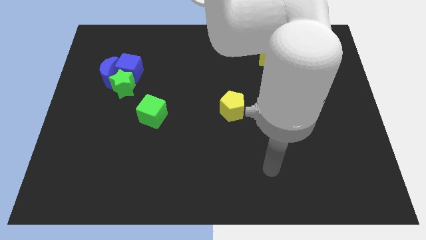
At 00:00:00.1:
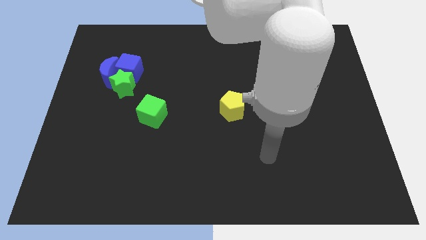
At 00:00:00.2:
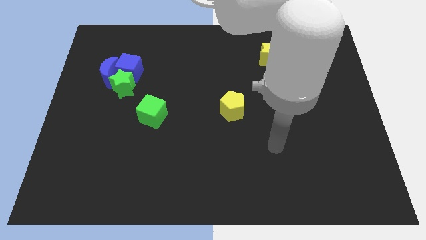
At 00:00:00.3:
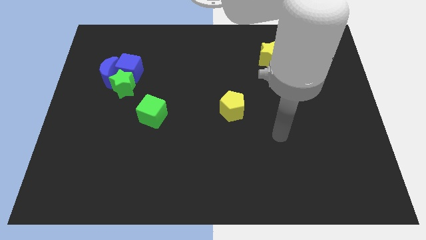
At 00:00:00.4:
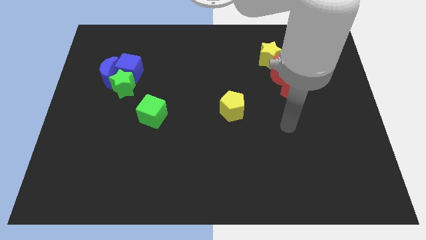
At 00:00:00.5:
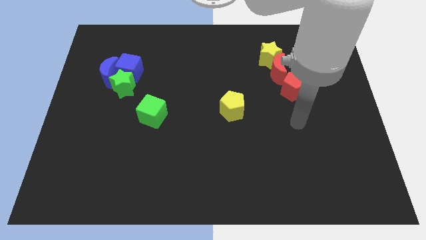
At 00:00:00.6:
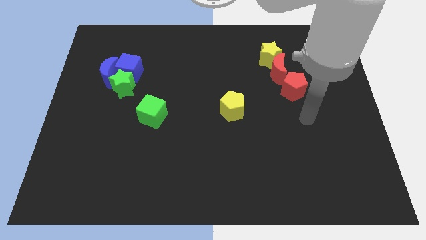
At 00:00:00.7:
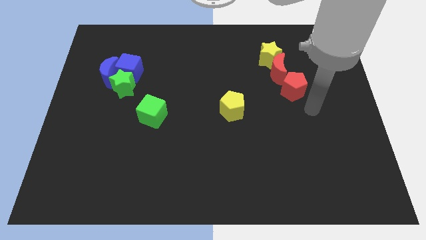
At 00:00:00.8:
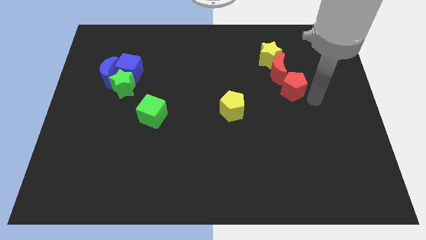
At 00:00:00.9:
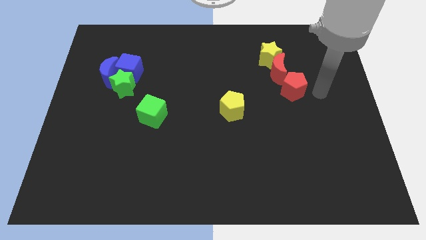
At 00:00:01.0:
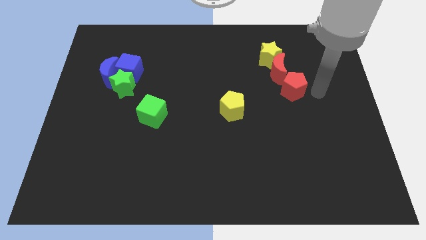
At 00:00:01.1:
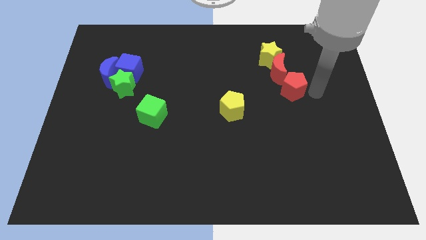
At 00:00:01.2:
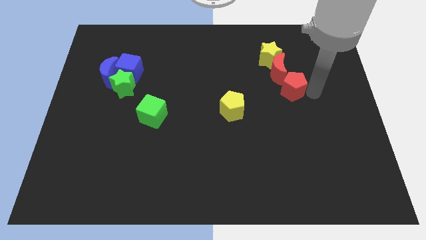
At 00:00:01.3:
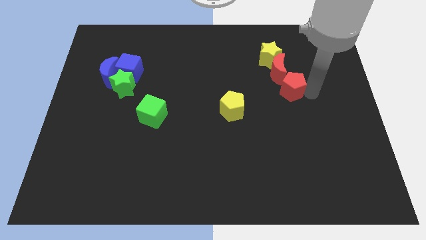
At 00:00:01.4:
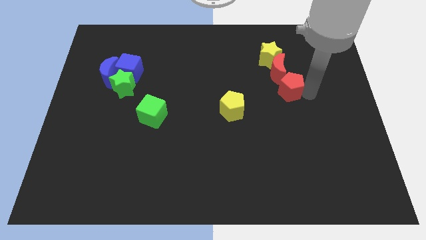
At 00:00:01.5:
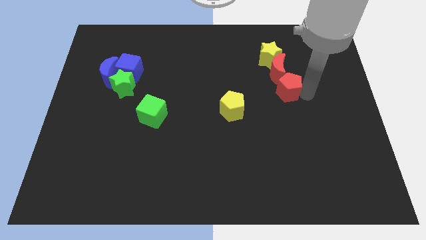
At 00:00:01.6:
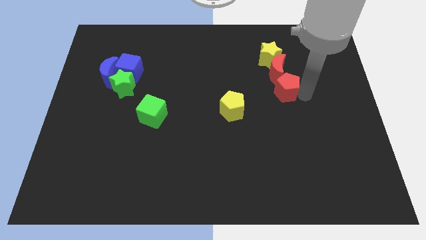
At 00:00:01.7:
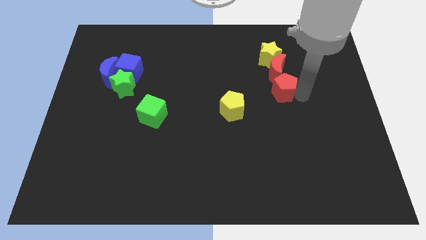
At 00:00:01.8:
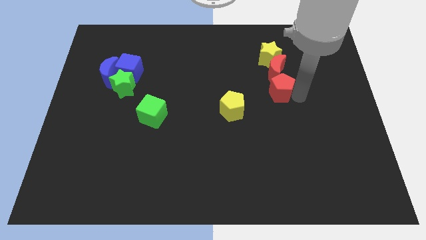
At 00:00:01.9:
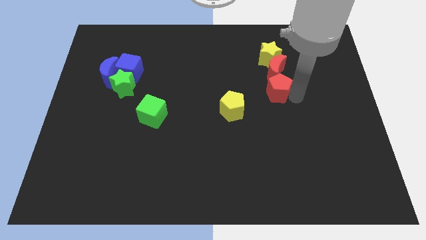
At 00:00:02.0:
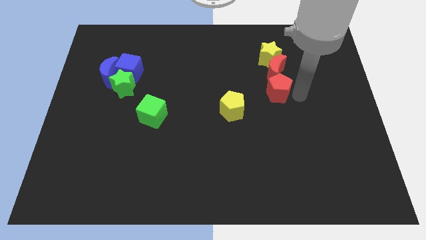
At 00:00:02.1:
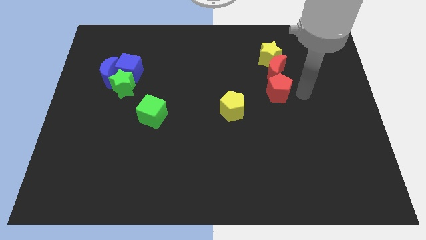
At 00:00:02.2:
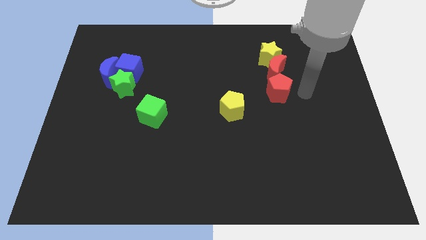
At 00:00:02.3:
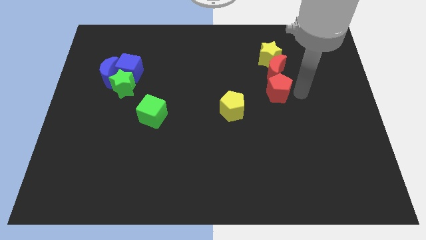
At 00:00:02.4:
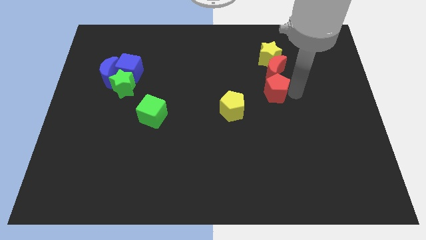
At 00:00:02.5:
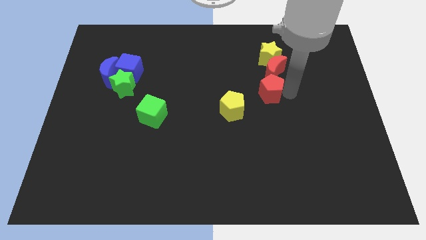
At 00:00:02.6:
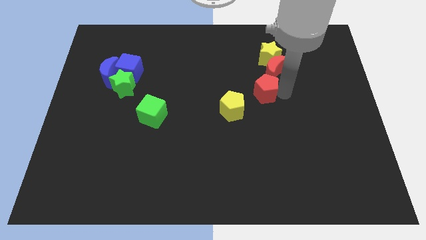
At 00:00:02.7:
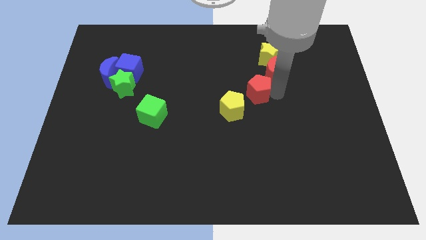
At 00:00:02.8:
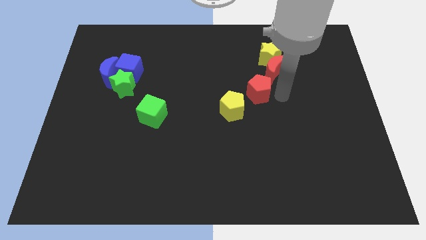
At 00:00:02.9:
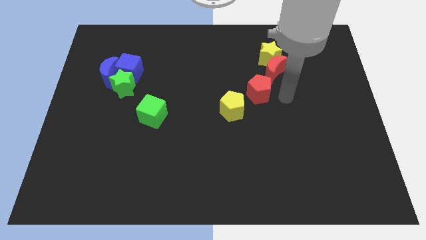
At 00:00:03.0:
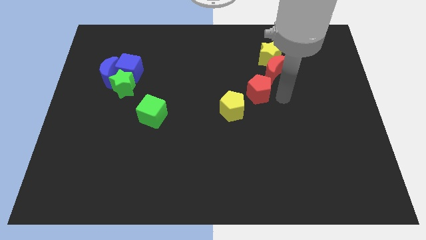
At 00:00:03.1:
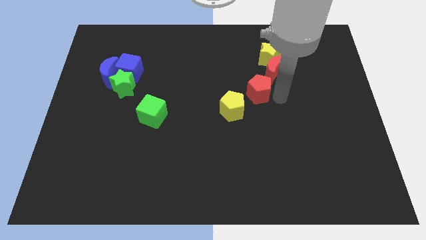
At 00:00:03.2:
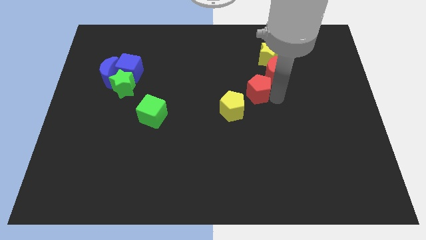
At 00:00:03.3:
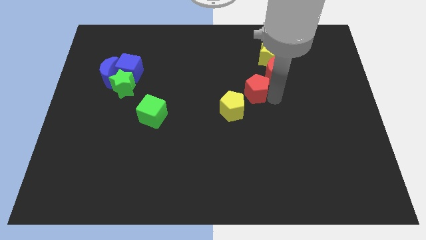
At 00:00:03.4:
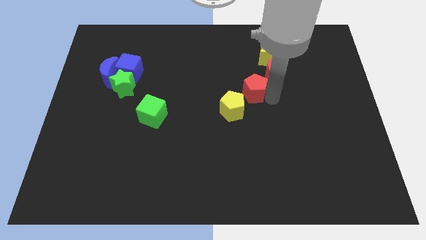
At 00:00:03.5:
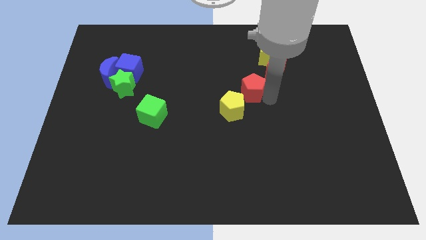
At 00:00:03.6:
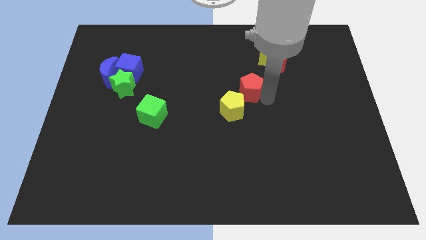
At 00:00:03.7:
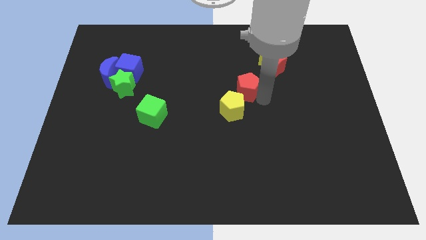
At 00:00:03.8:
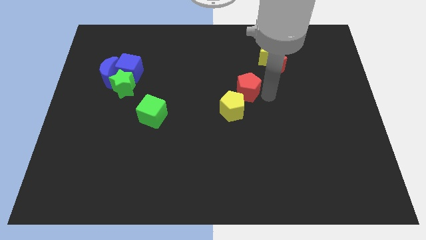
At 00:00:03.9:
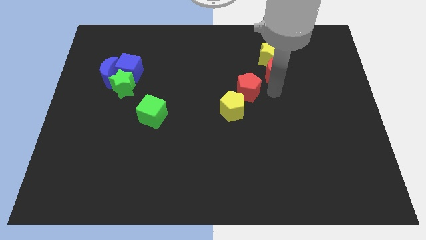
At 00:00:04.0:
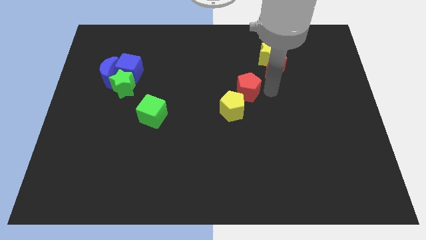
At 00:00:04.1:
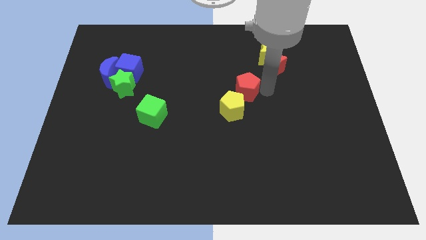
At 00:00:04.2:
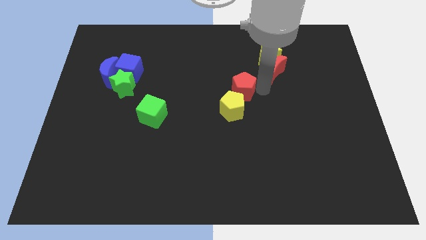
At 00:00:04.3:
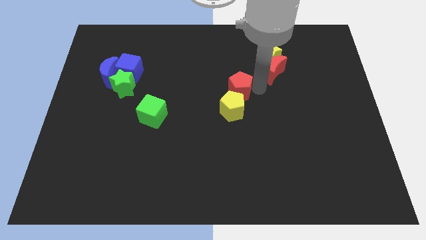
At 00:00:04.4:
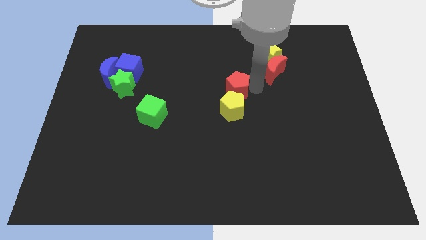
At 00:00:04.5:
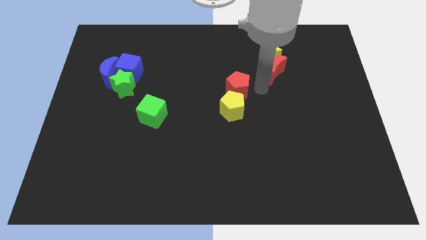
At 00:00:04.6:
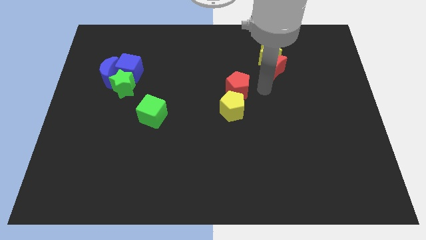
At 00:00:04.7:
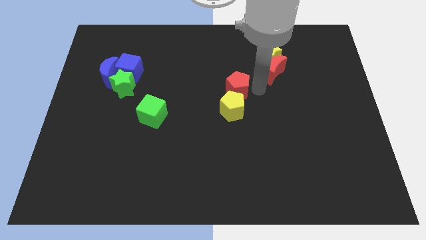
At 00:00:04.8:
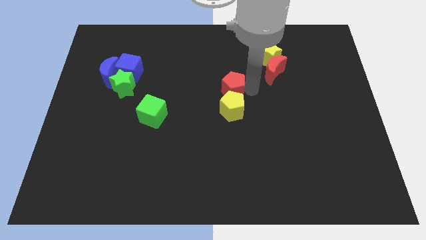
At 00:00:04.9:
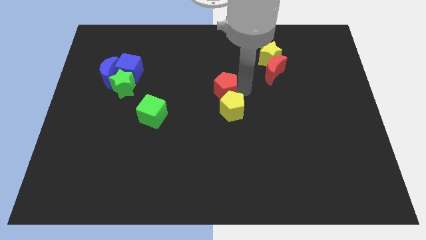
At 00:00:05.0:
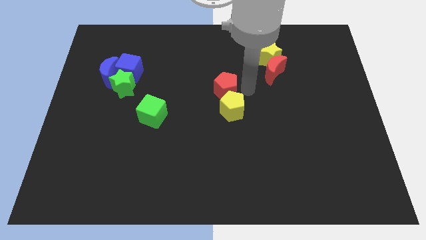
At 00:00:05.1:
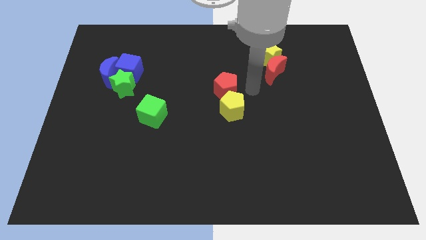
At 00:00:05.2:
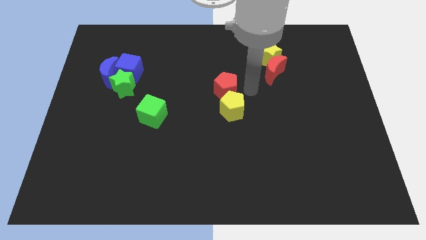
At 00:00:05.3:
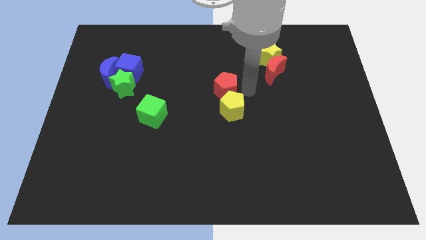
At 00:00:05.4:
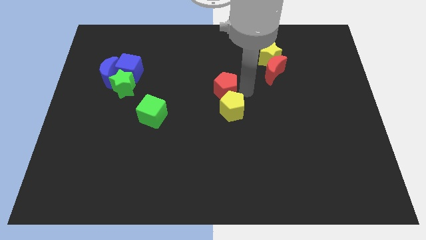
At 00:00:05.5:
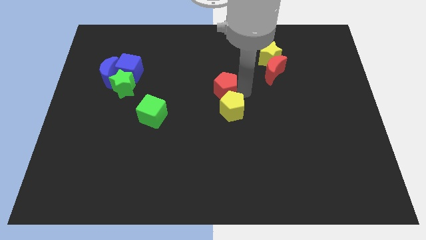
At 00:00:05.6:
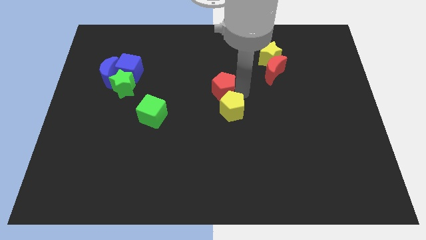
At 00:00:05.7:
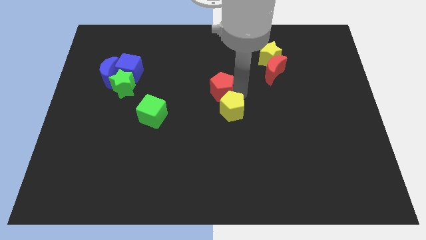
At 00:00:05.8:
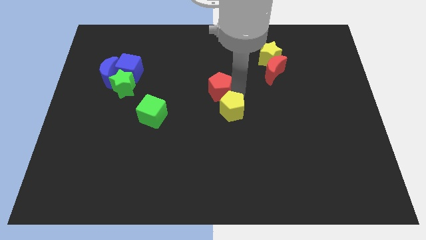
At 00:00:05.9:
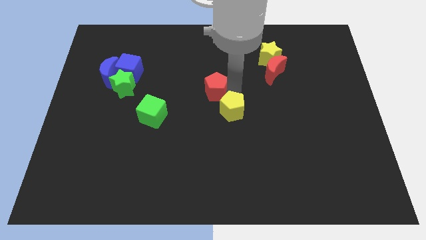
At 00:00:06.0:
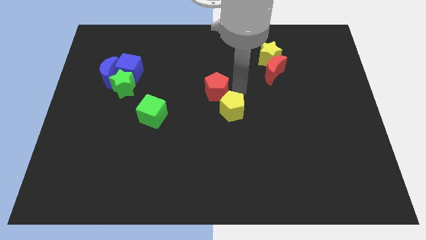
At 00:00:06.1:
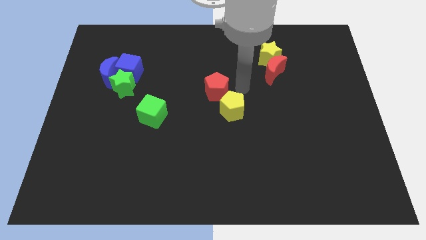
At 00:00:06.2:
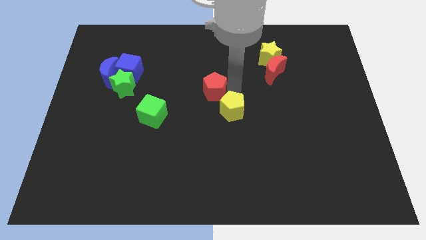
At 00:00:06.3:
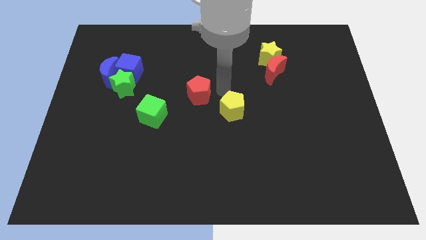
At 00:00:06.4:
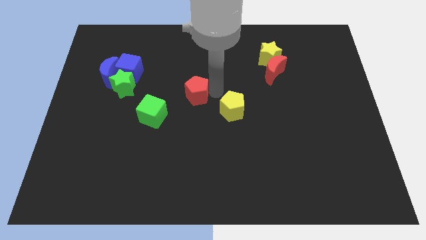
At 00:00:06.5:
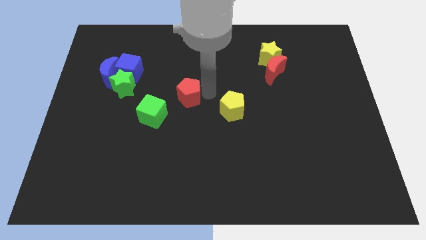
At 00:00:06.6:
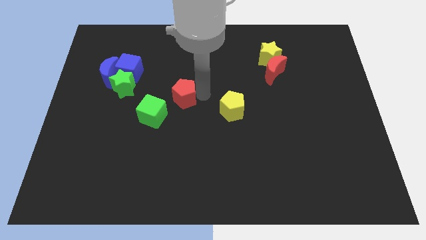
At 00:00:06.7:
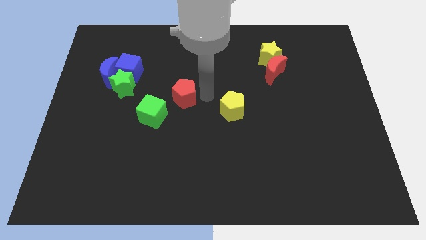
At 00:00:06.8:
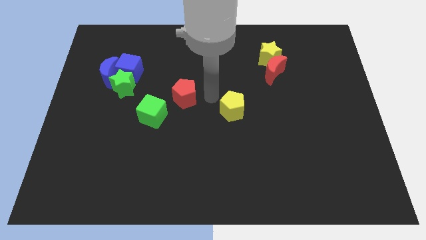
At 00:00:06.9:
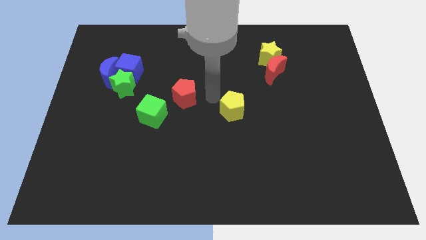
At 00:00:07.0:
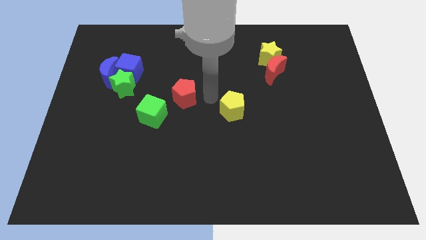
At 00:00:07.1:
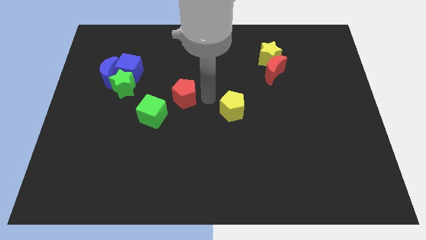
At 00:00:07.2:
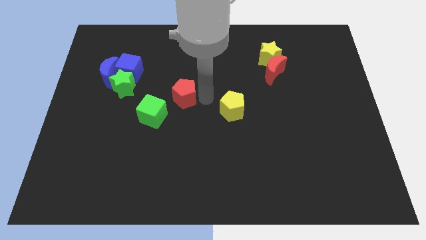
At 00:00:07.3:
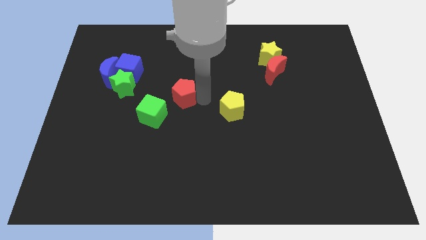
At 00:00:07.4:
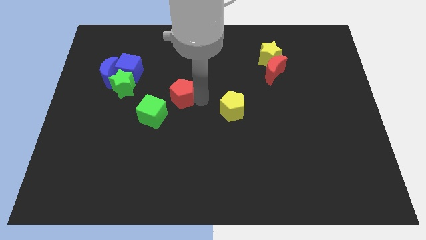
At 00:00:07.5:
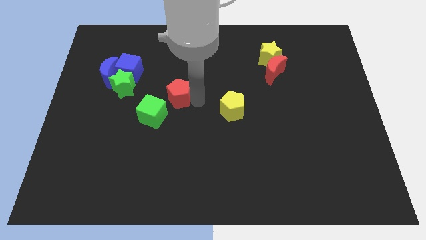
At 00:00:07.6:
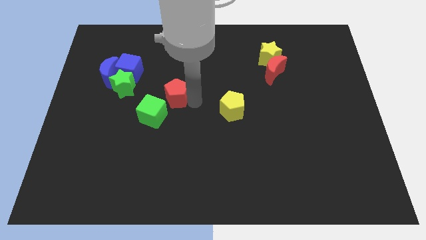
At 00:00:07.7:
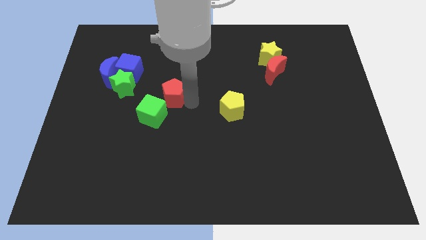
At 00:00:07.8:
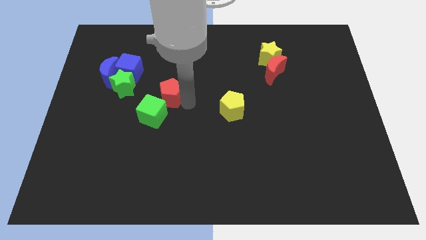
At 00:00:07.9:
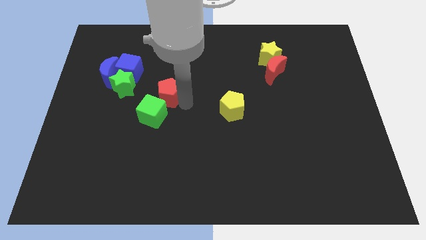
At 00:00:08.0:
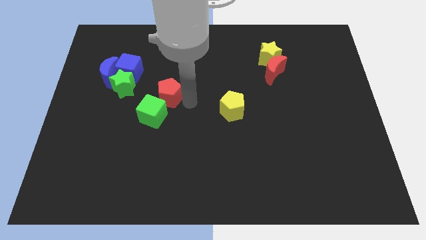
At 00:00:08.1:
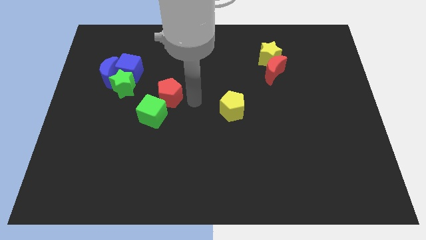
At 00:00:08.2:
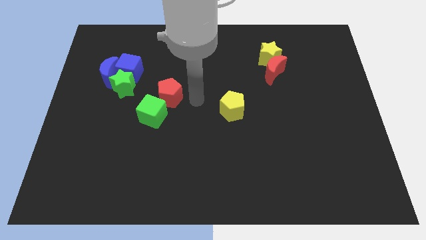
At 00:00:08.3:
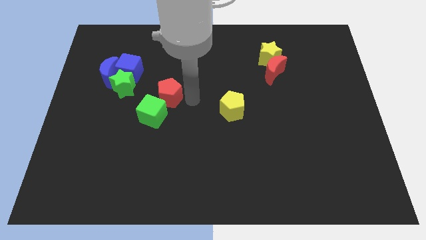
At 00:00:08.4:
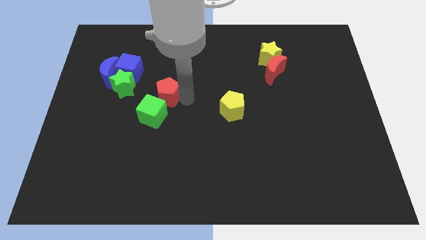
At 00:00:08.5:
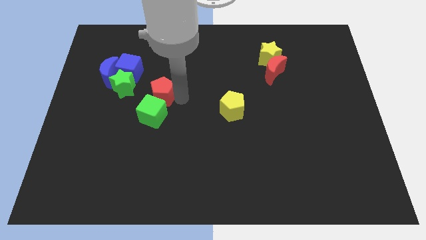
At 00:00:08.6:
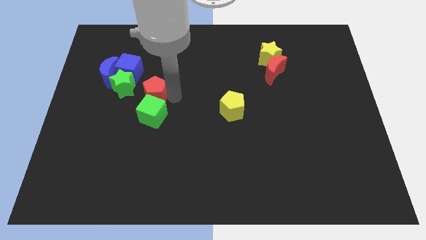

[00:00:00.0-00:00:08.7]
push the red pentagon to the top left side of the green cube
